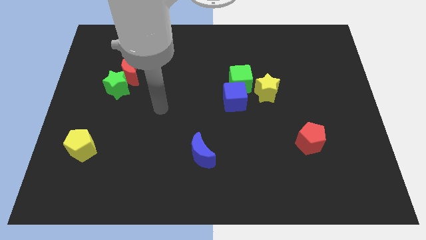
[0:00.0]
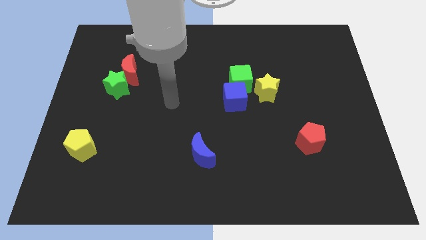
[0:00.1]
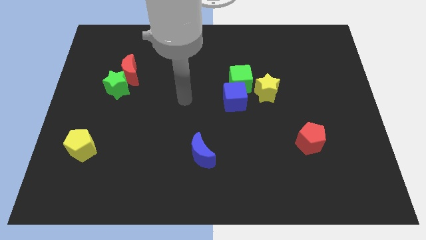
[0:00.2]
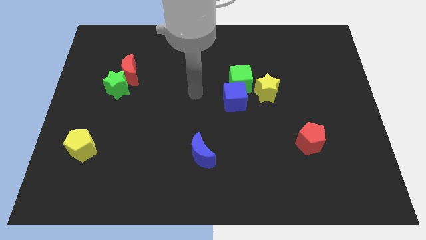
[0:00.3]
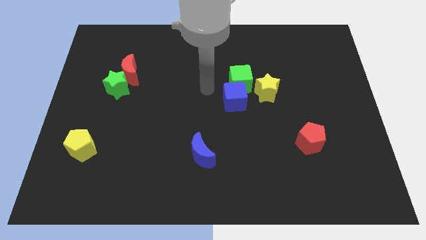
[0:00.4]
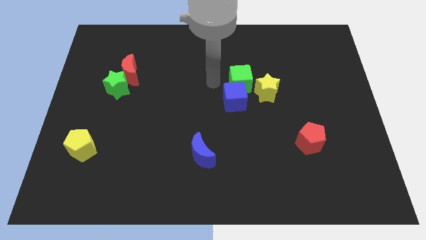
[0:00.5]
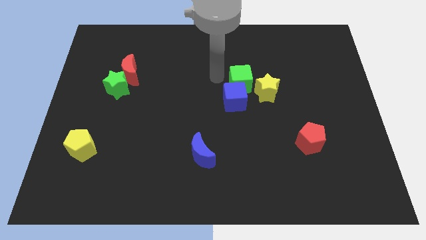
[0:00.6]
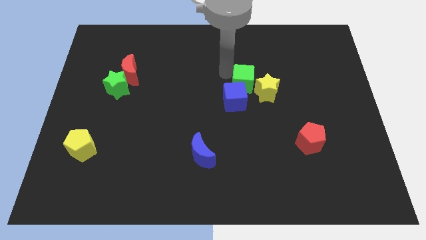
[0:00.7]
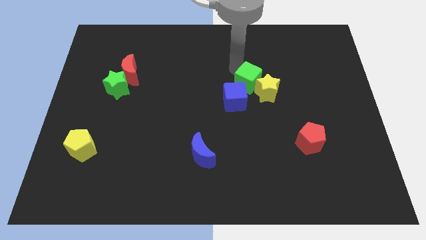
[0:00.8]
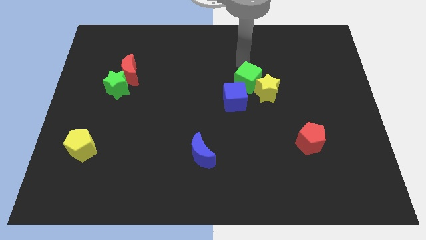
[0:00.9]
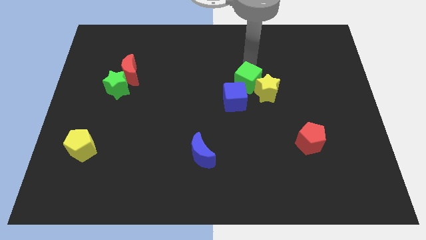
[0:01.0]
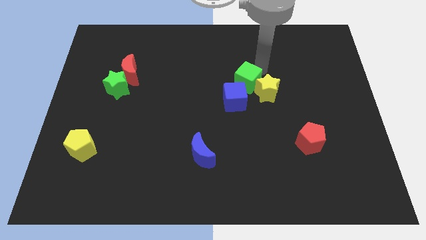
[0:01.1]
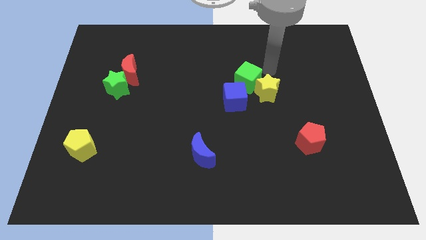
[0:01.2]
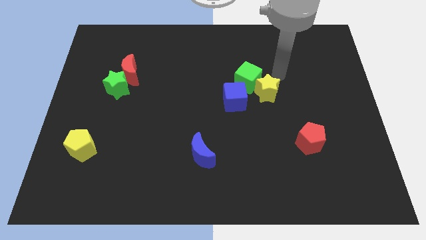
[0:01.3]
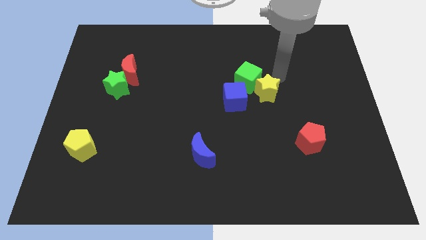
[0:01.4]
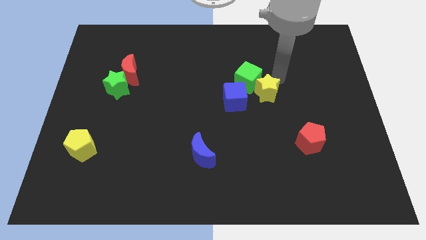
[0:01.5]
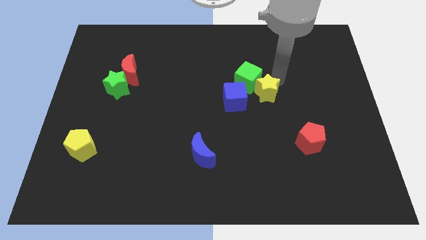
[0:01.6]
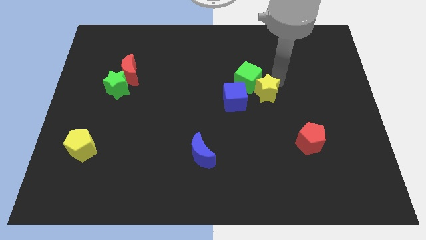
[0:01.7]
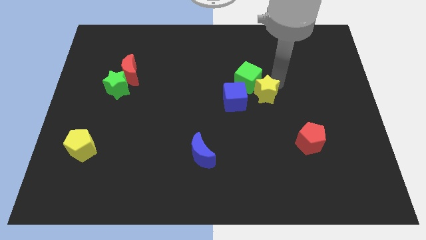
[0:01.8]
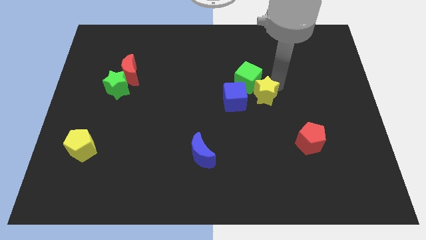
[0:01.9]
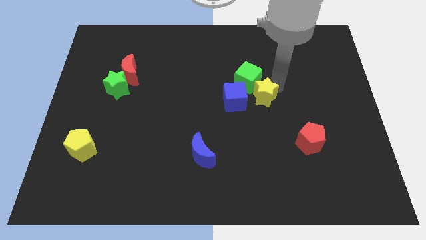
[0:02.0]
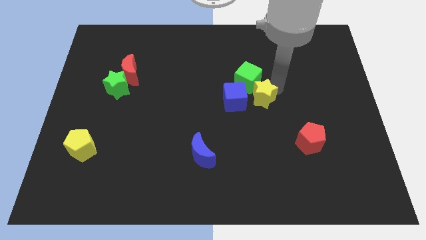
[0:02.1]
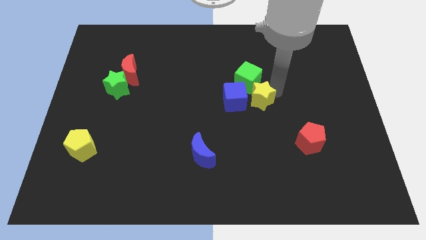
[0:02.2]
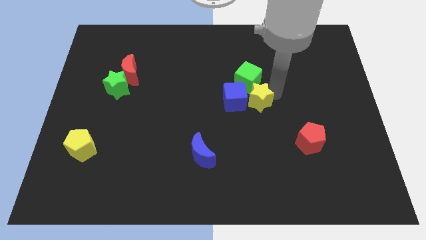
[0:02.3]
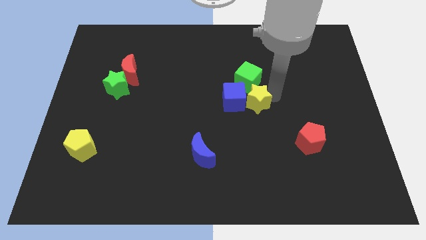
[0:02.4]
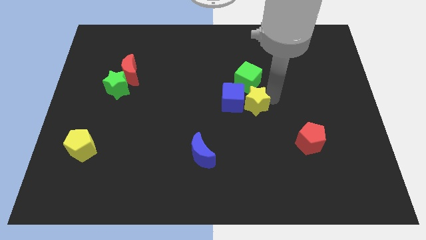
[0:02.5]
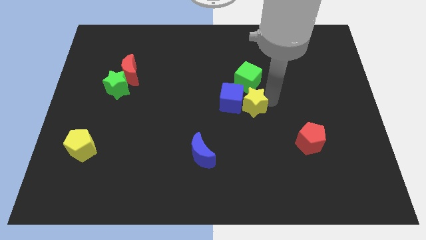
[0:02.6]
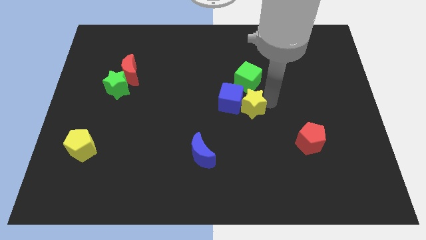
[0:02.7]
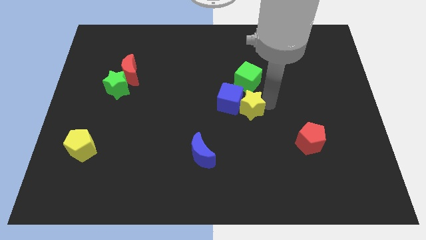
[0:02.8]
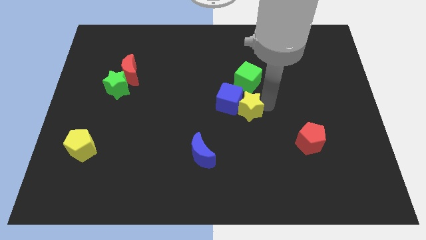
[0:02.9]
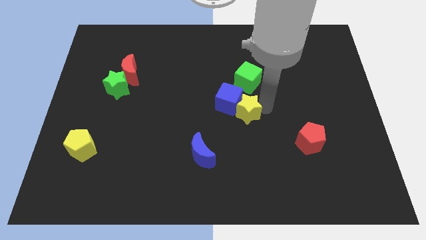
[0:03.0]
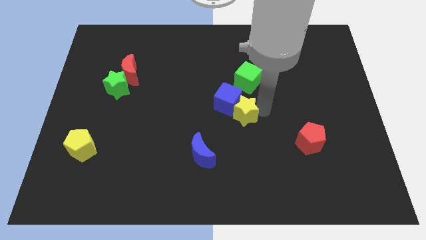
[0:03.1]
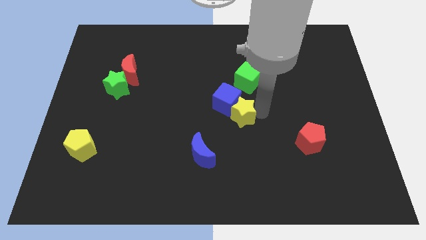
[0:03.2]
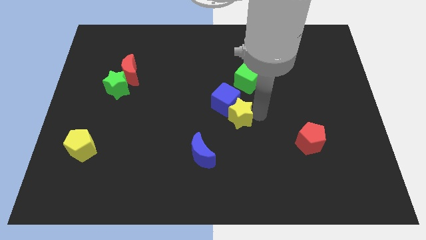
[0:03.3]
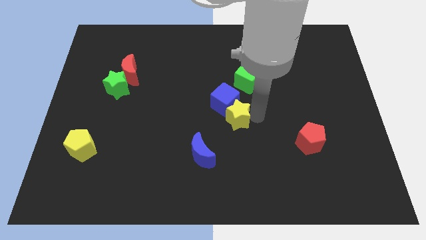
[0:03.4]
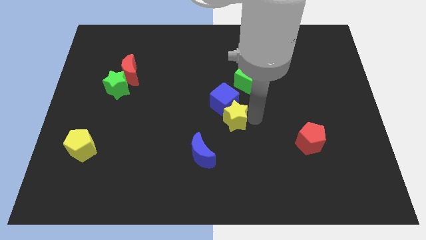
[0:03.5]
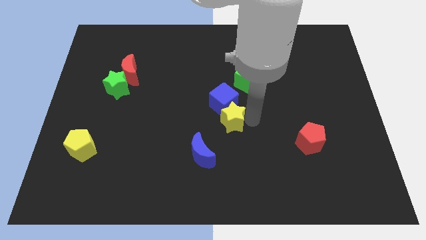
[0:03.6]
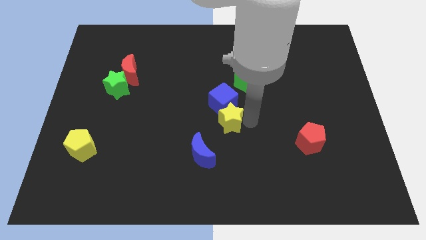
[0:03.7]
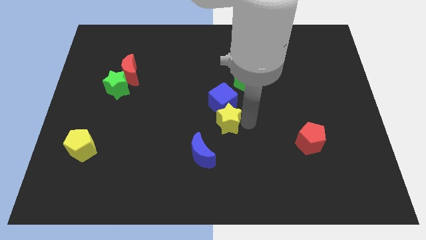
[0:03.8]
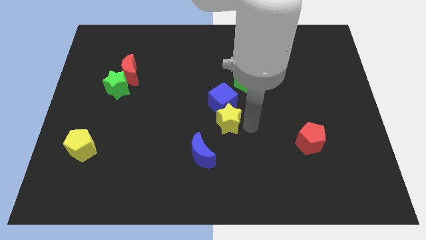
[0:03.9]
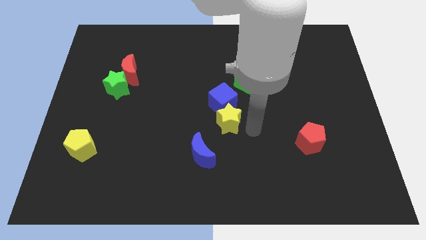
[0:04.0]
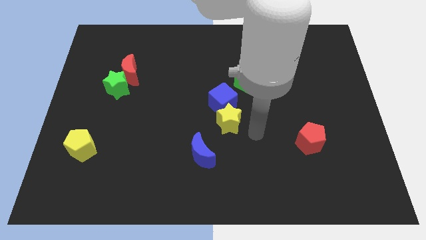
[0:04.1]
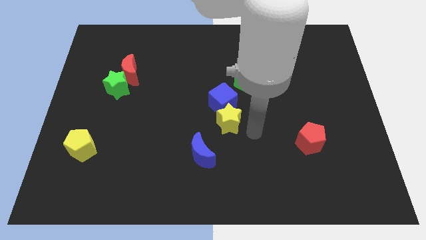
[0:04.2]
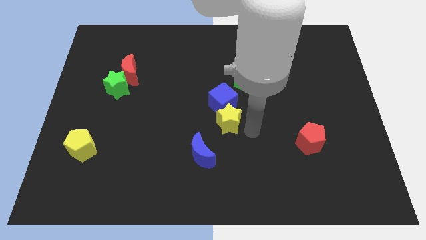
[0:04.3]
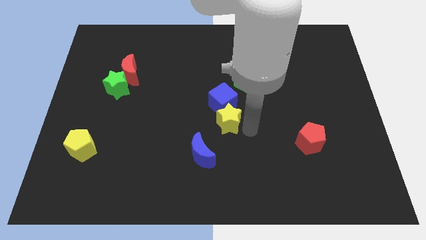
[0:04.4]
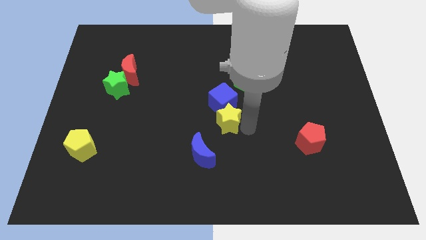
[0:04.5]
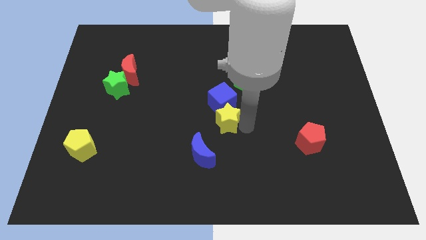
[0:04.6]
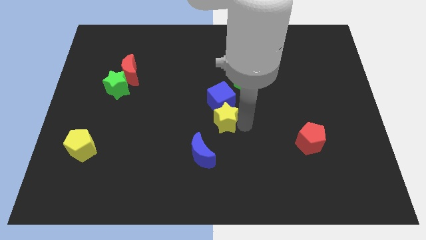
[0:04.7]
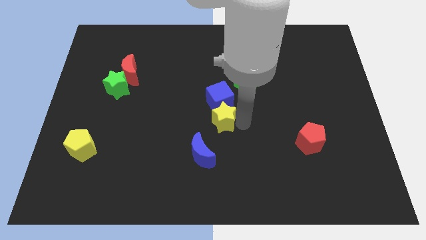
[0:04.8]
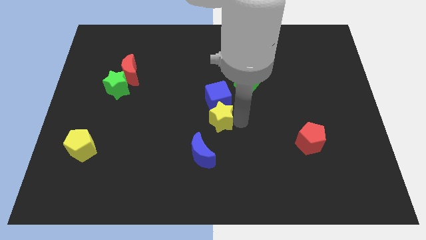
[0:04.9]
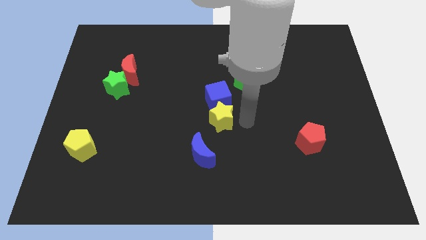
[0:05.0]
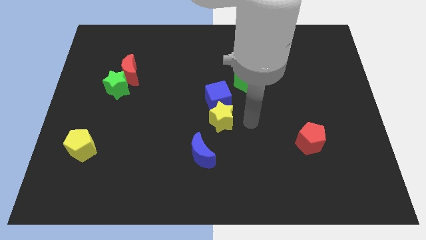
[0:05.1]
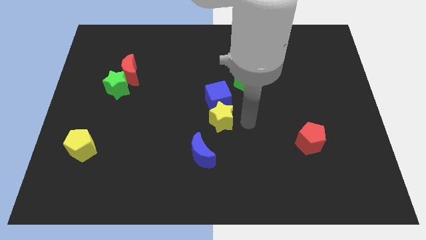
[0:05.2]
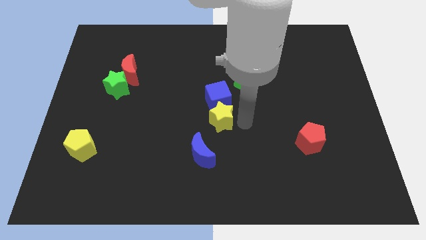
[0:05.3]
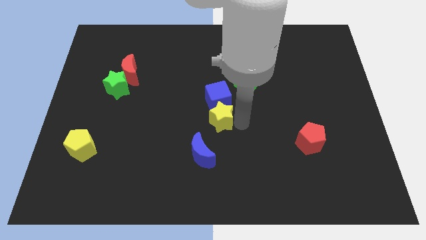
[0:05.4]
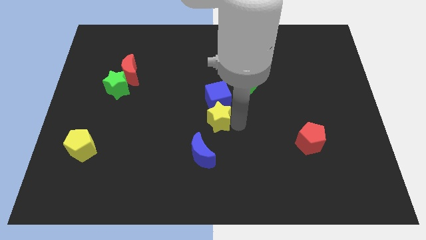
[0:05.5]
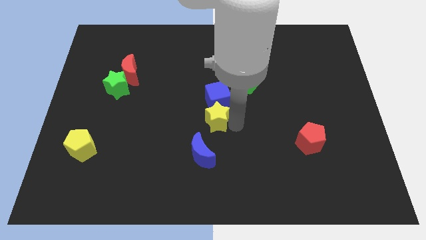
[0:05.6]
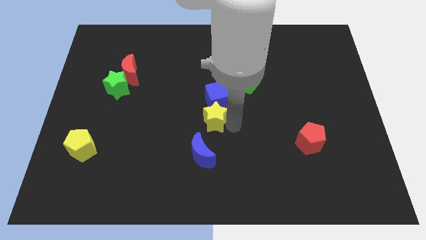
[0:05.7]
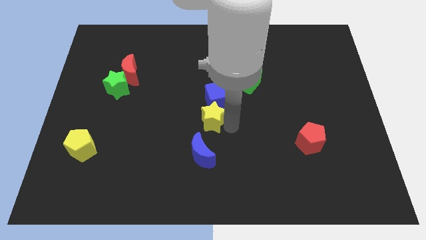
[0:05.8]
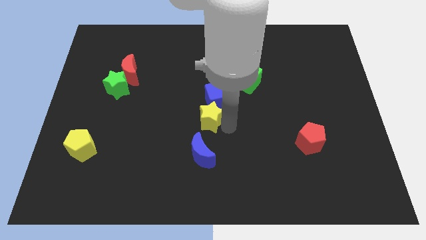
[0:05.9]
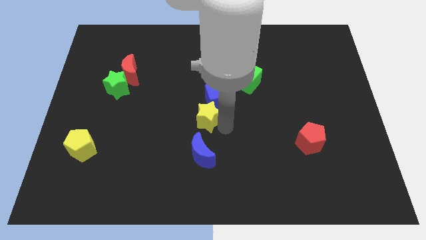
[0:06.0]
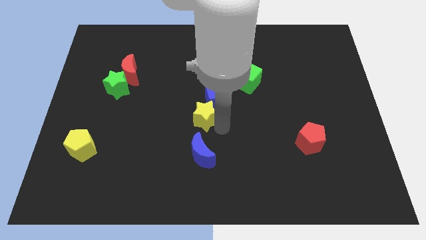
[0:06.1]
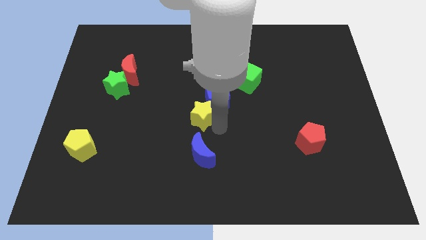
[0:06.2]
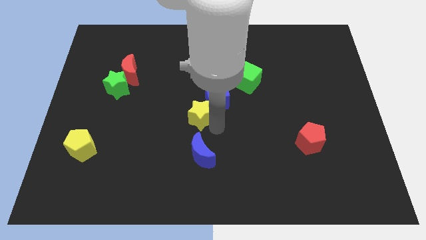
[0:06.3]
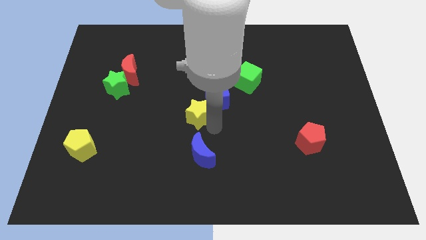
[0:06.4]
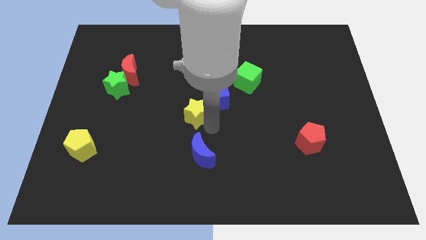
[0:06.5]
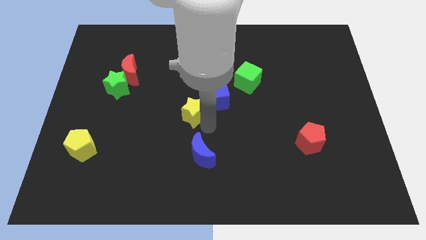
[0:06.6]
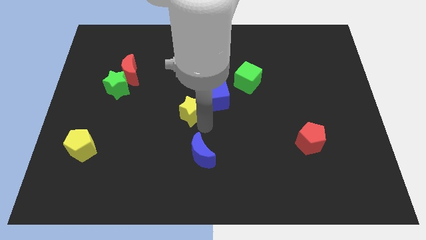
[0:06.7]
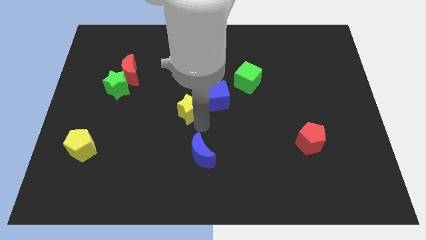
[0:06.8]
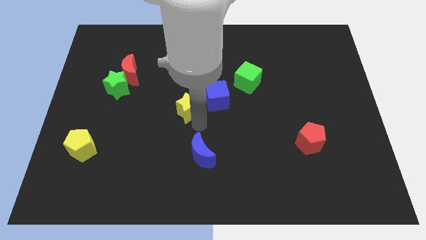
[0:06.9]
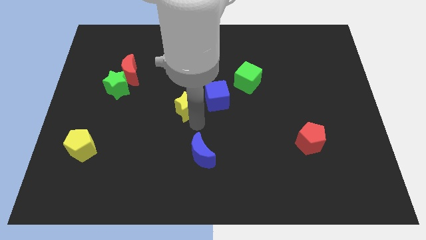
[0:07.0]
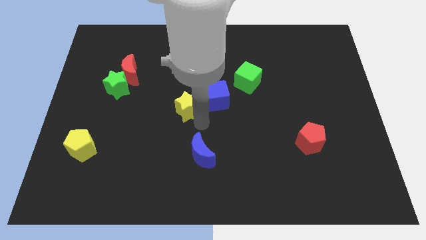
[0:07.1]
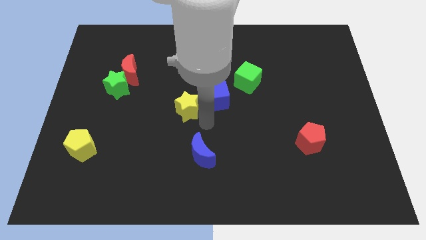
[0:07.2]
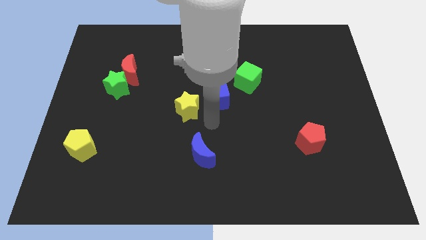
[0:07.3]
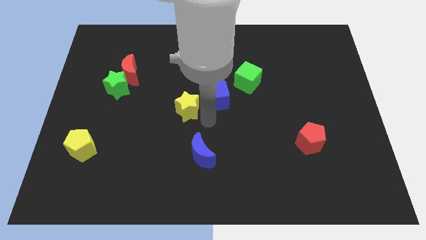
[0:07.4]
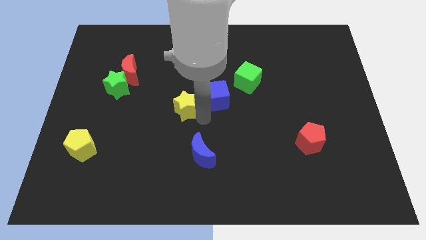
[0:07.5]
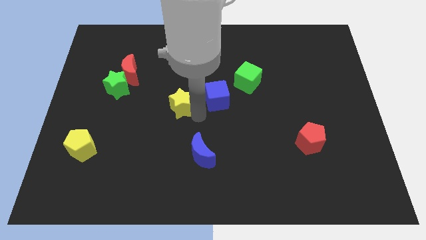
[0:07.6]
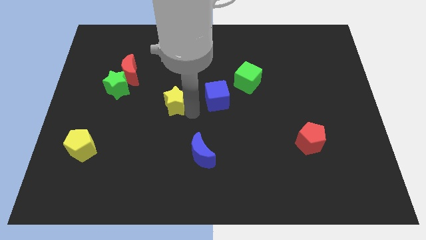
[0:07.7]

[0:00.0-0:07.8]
slide the yellow star left

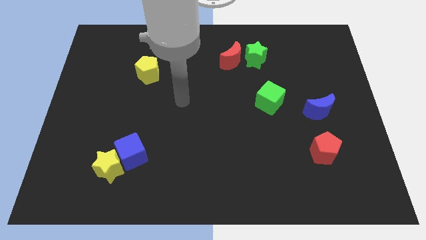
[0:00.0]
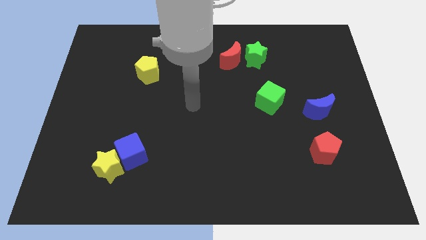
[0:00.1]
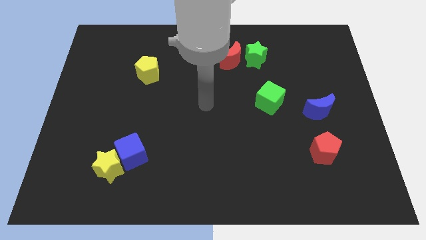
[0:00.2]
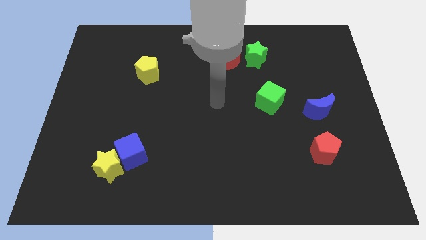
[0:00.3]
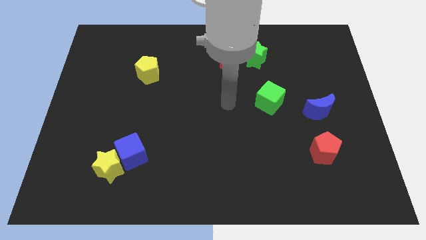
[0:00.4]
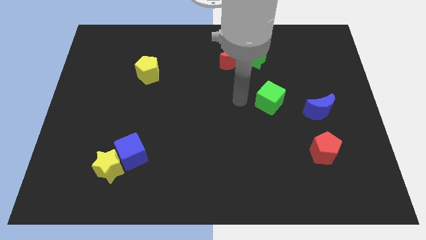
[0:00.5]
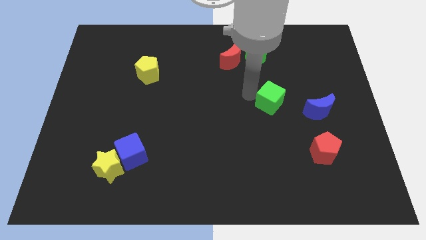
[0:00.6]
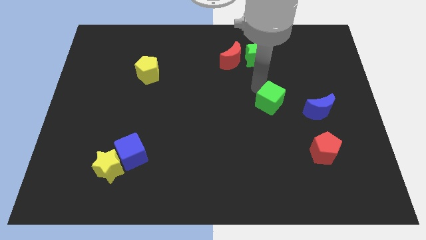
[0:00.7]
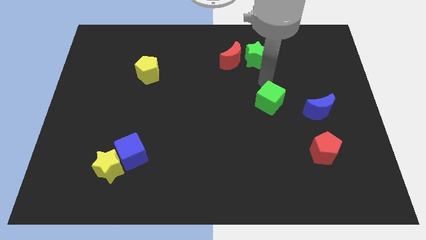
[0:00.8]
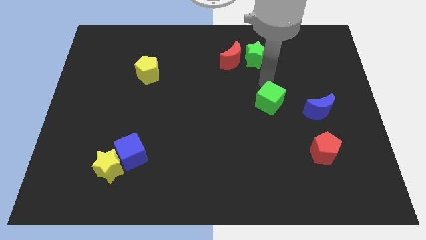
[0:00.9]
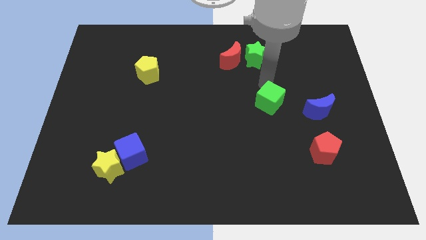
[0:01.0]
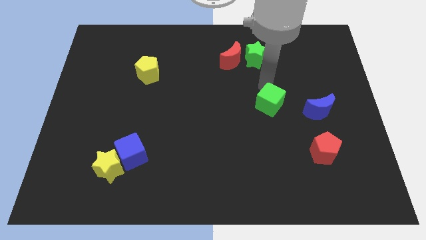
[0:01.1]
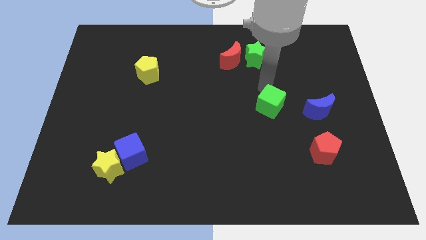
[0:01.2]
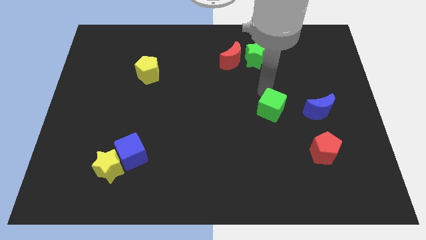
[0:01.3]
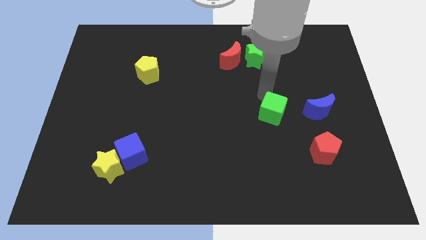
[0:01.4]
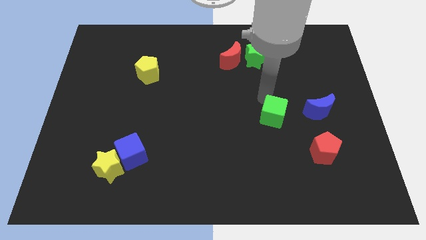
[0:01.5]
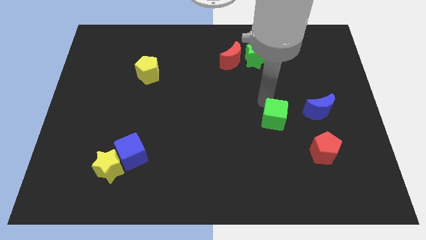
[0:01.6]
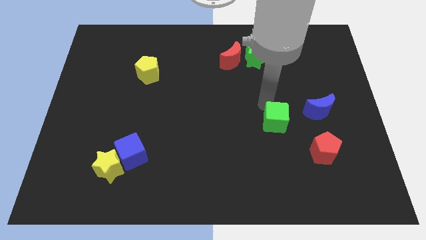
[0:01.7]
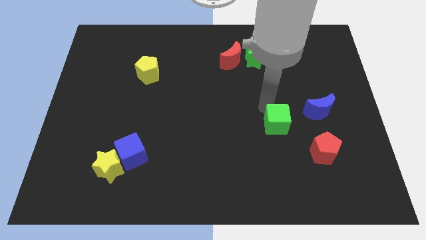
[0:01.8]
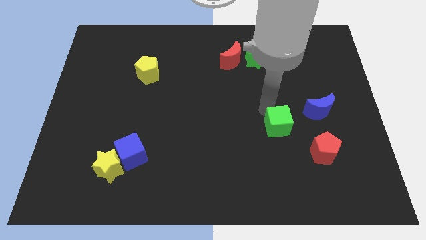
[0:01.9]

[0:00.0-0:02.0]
slightly push the green cube down
